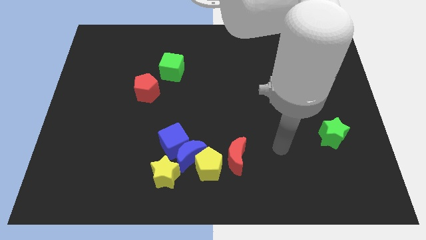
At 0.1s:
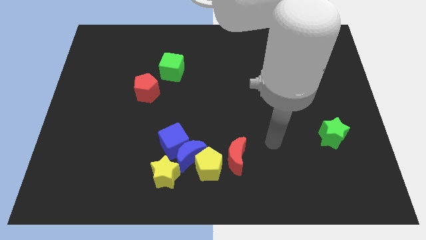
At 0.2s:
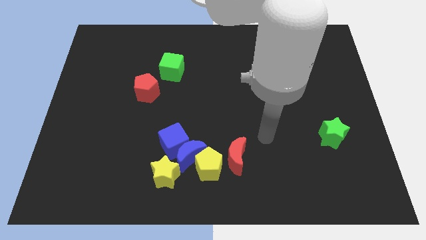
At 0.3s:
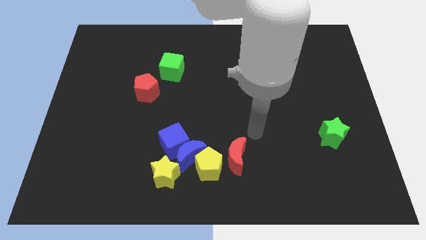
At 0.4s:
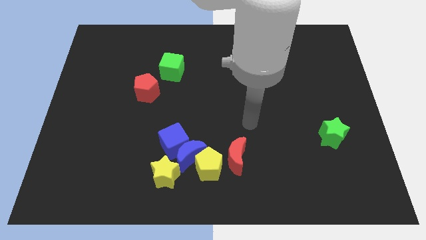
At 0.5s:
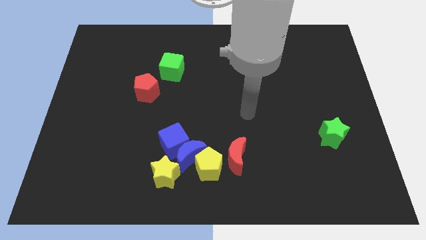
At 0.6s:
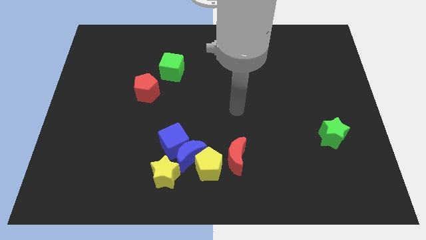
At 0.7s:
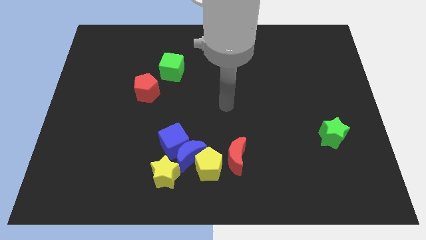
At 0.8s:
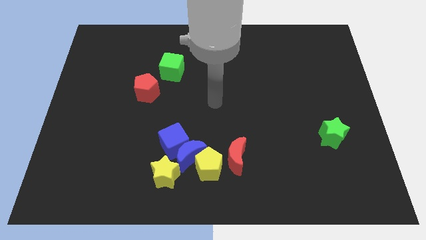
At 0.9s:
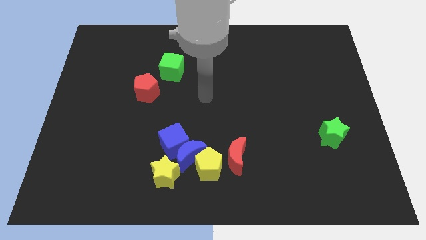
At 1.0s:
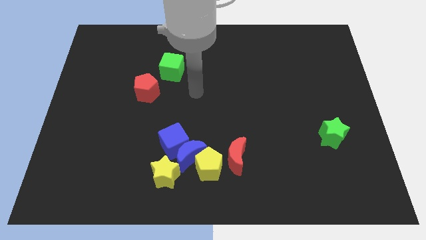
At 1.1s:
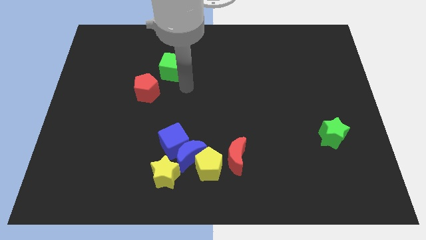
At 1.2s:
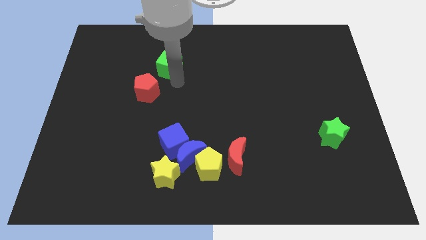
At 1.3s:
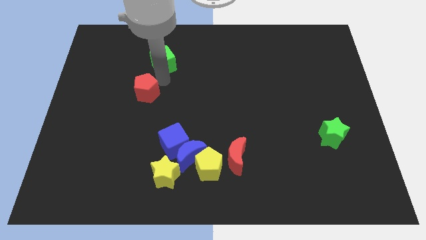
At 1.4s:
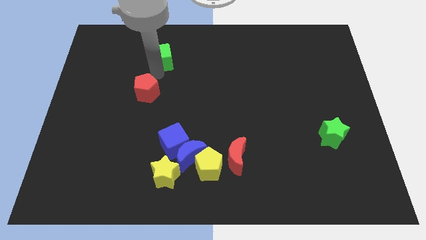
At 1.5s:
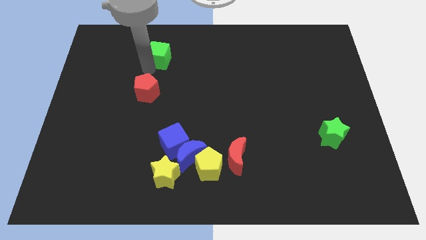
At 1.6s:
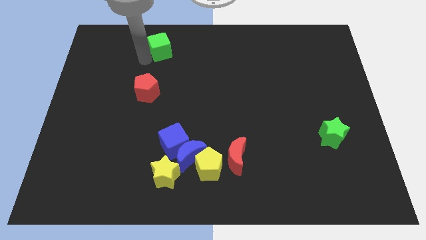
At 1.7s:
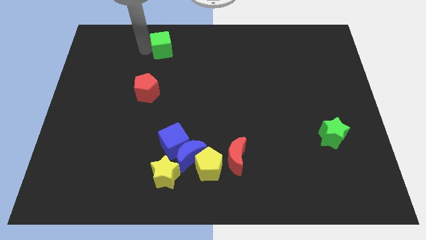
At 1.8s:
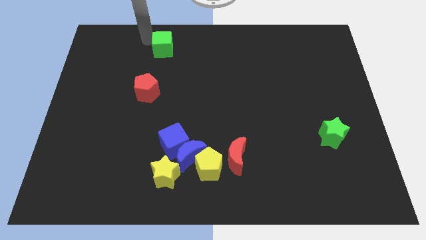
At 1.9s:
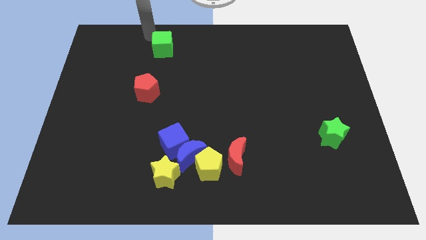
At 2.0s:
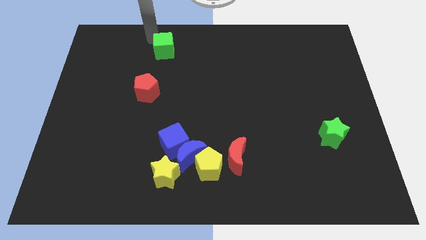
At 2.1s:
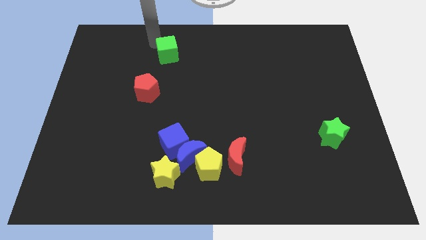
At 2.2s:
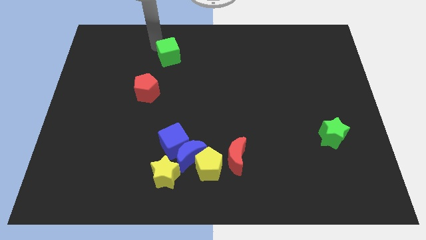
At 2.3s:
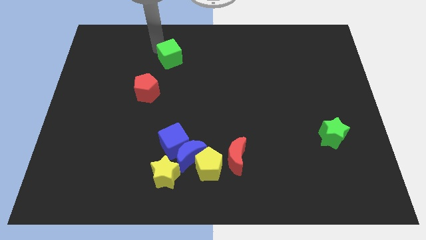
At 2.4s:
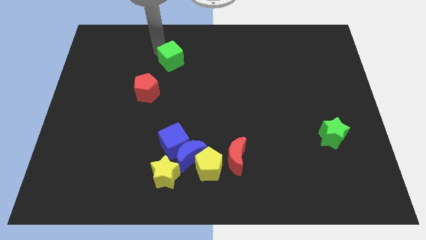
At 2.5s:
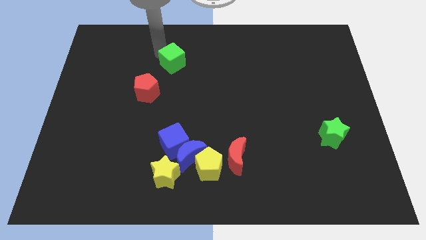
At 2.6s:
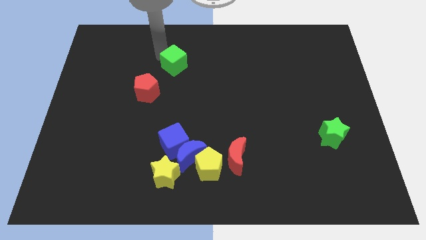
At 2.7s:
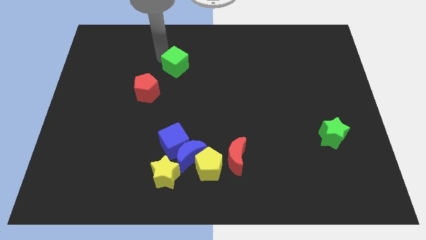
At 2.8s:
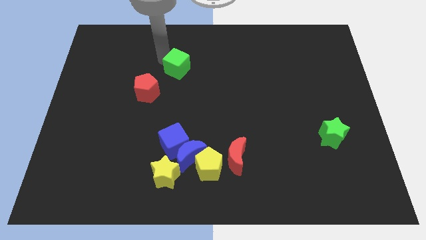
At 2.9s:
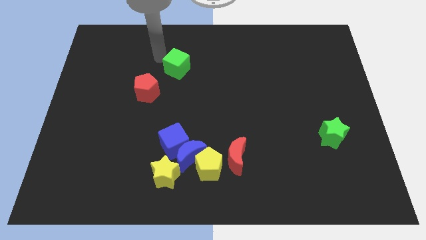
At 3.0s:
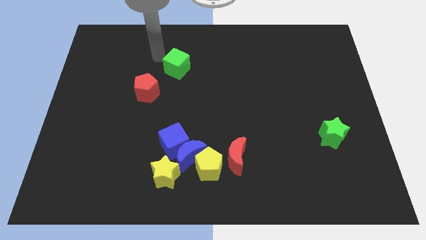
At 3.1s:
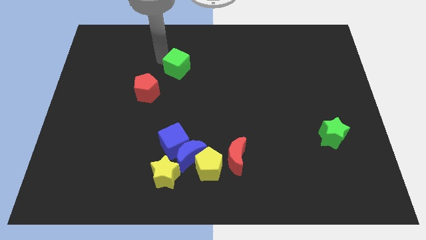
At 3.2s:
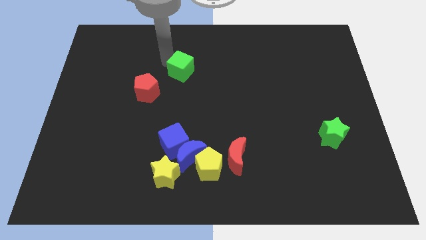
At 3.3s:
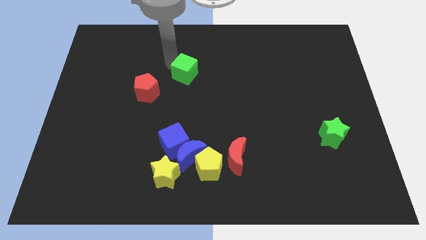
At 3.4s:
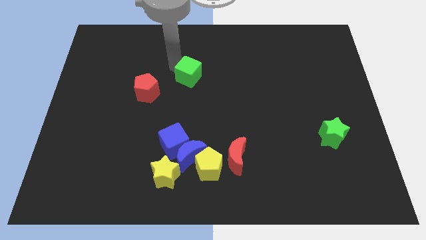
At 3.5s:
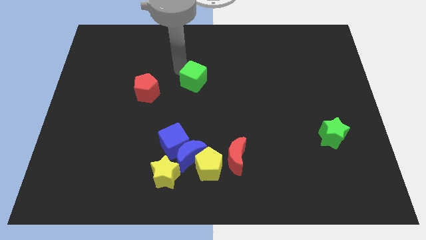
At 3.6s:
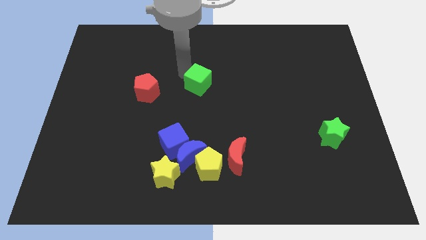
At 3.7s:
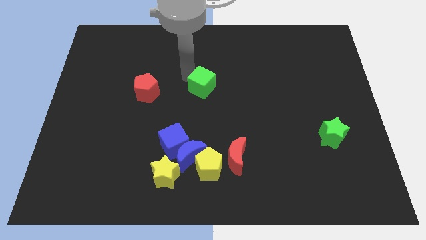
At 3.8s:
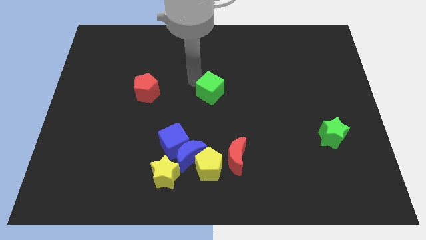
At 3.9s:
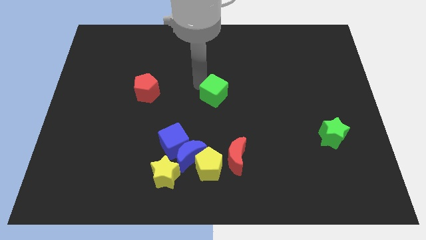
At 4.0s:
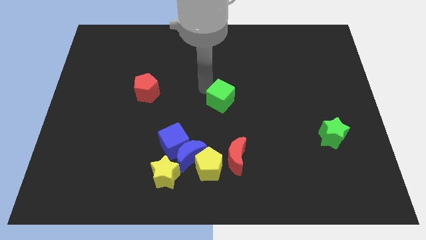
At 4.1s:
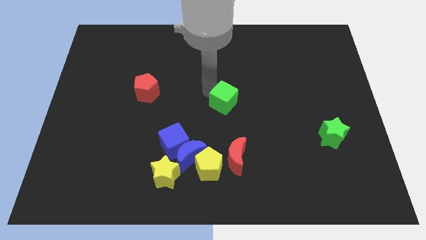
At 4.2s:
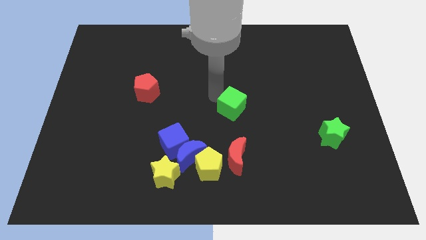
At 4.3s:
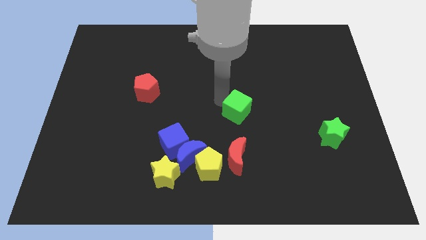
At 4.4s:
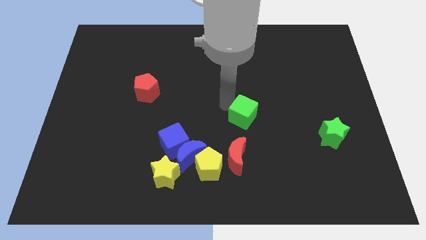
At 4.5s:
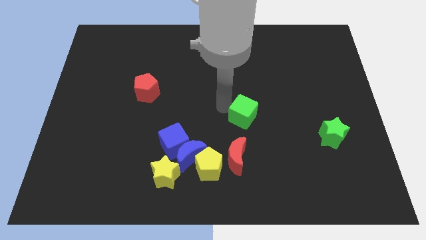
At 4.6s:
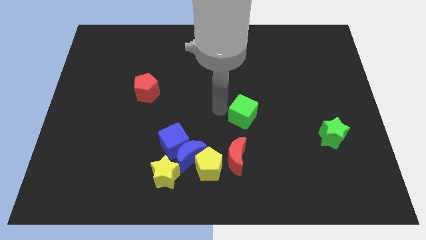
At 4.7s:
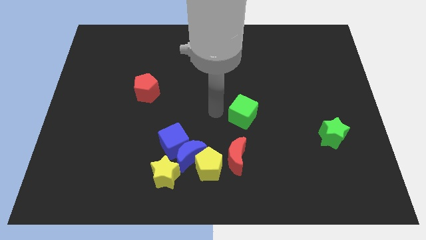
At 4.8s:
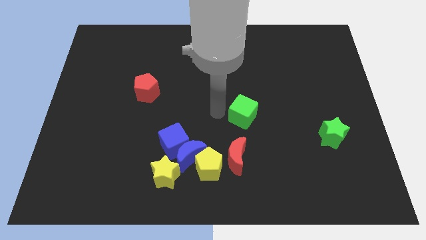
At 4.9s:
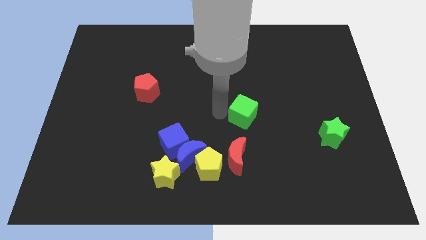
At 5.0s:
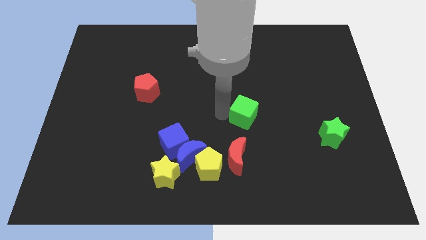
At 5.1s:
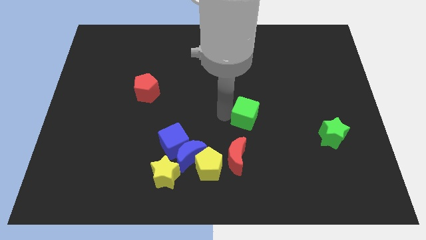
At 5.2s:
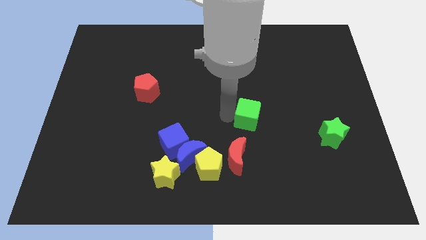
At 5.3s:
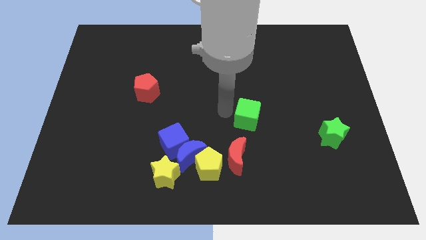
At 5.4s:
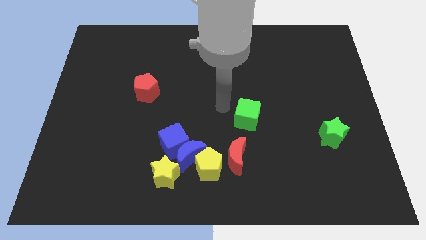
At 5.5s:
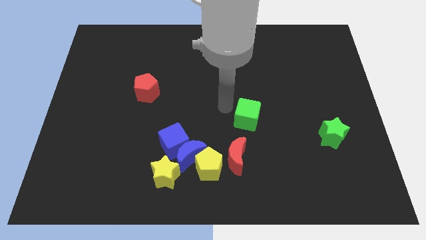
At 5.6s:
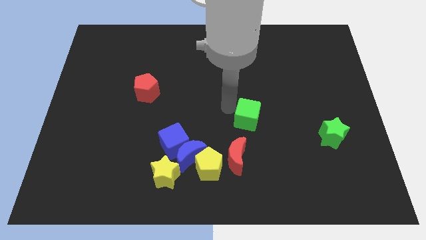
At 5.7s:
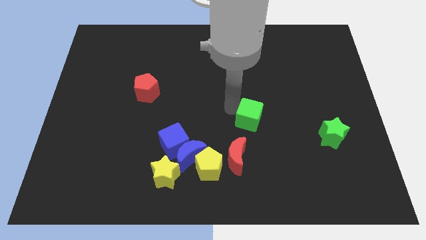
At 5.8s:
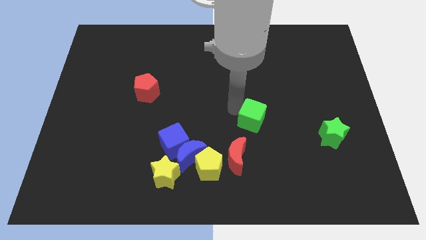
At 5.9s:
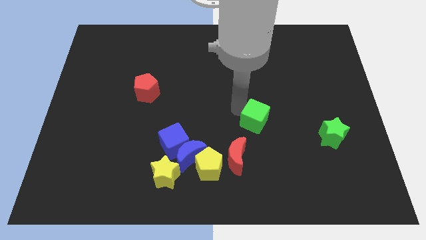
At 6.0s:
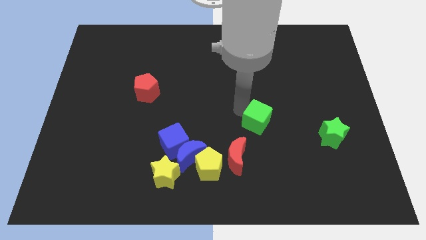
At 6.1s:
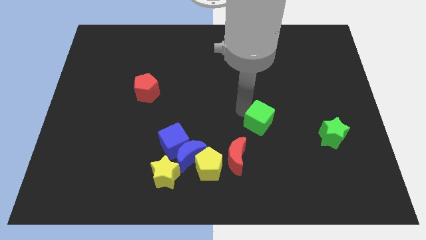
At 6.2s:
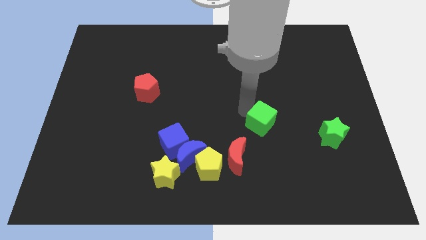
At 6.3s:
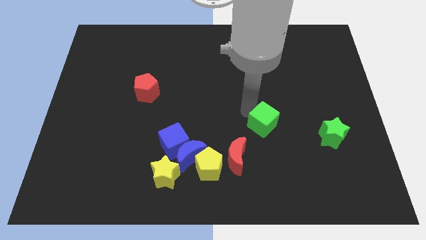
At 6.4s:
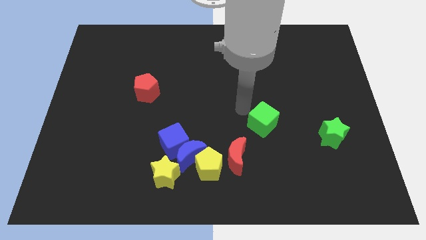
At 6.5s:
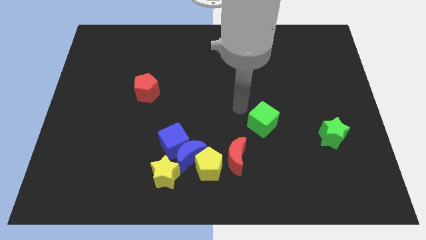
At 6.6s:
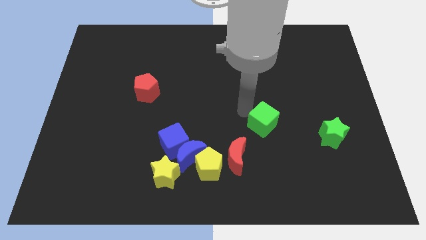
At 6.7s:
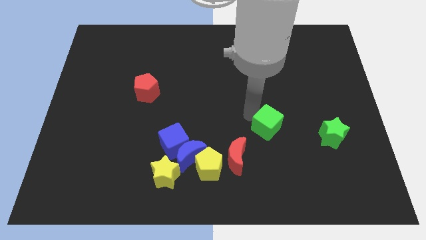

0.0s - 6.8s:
put the green cube to the left of the green star
